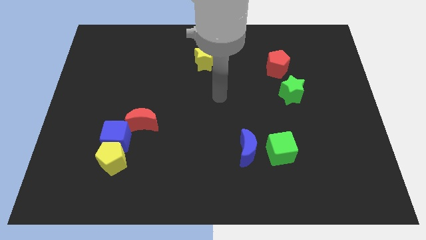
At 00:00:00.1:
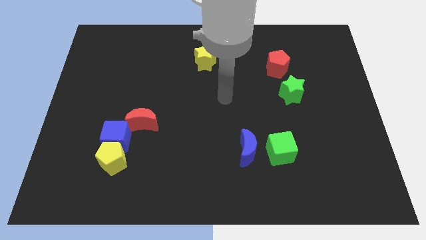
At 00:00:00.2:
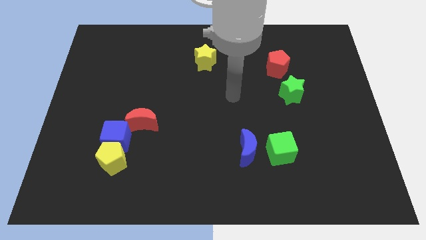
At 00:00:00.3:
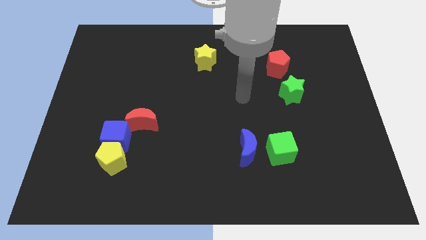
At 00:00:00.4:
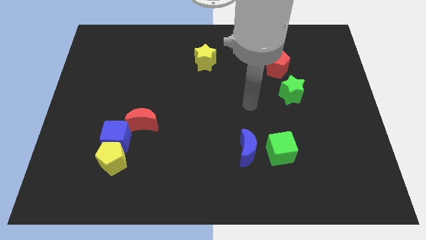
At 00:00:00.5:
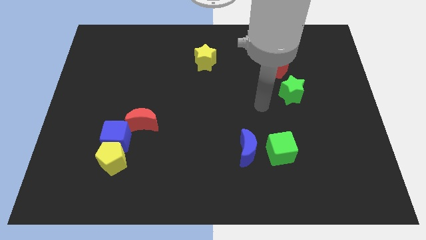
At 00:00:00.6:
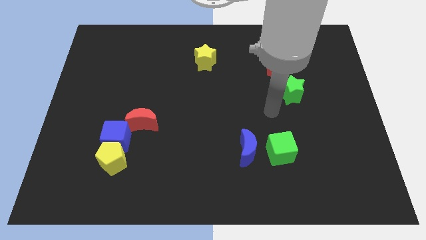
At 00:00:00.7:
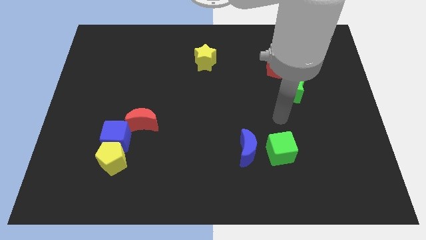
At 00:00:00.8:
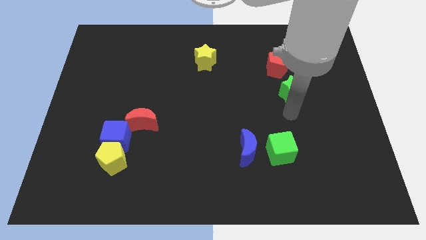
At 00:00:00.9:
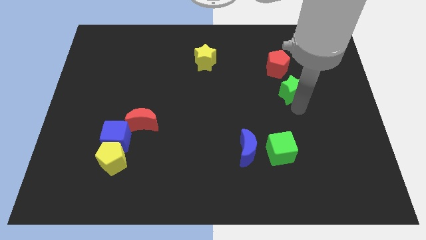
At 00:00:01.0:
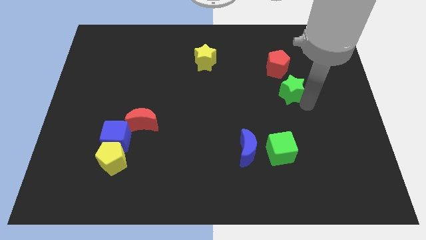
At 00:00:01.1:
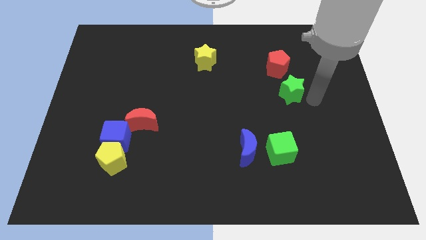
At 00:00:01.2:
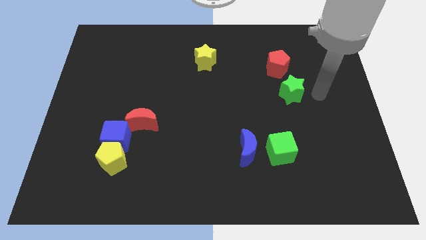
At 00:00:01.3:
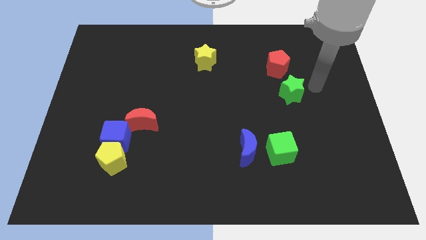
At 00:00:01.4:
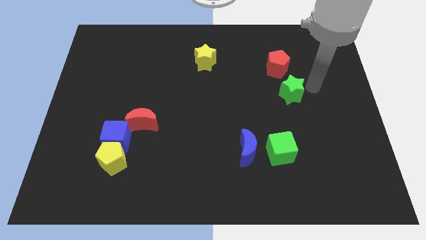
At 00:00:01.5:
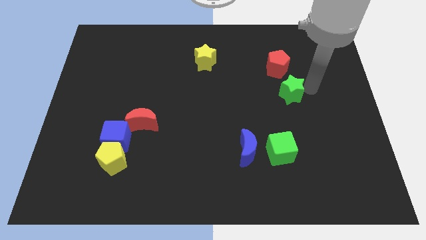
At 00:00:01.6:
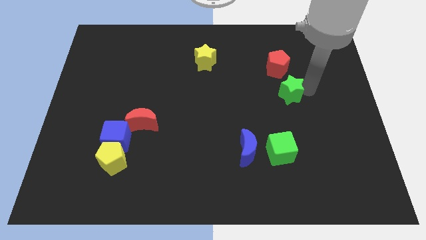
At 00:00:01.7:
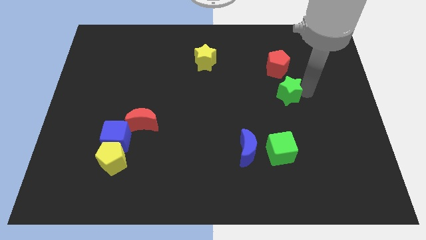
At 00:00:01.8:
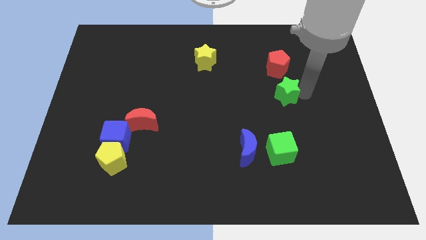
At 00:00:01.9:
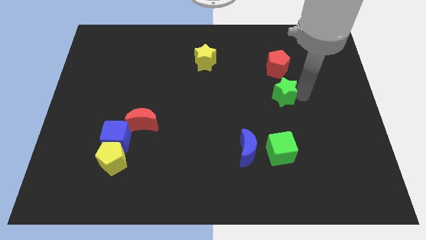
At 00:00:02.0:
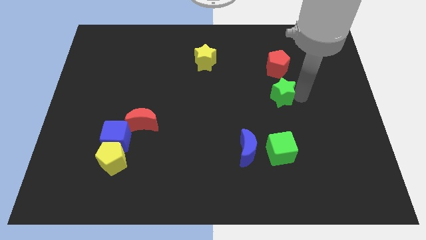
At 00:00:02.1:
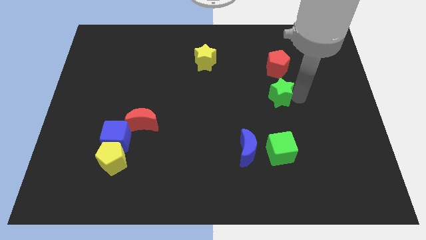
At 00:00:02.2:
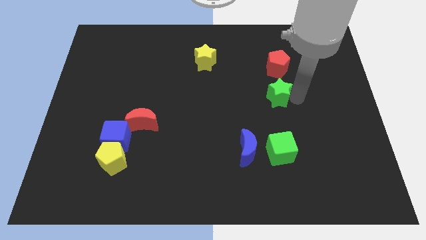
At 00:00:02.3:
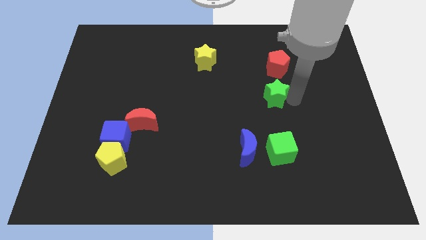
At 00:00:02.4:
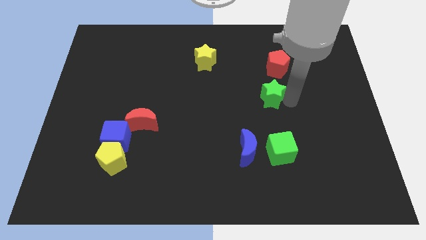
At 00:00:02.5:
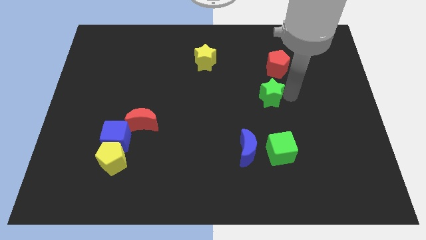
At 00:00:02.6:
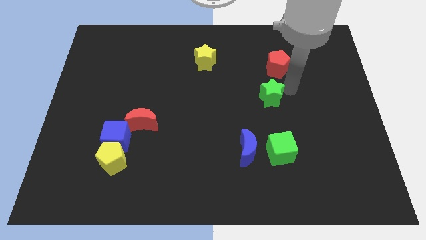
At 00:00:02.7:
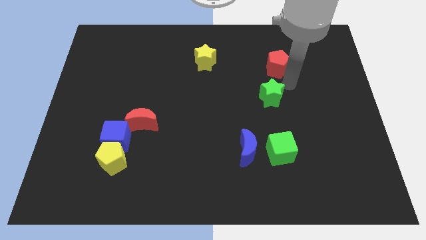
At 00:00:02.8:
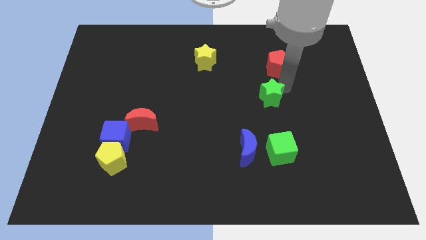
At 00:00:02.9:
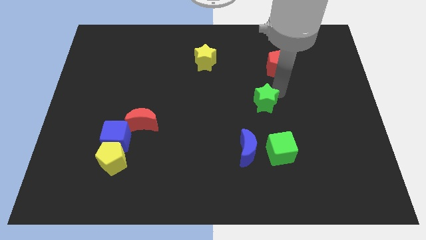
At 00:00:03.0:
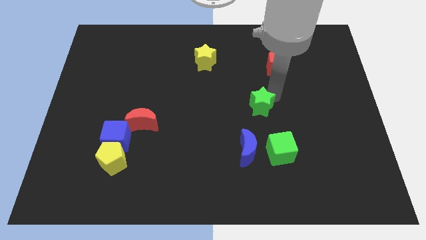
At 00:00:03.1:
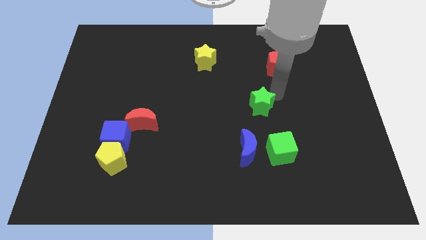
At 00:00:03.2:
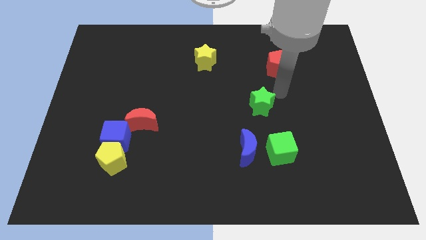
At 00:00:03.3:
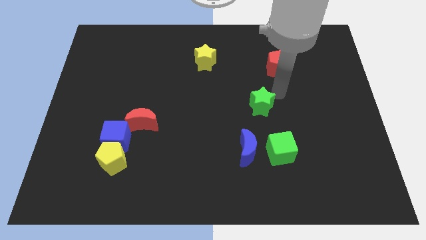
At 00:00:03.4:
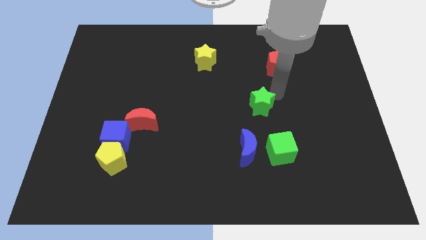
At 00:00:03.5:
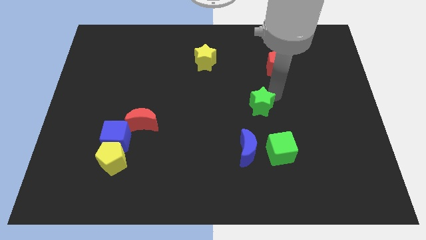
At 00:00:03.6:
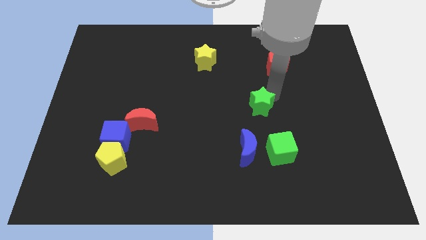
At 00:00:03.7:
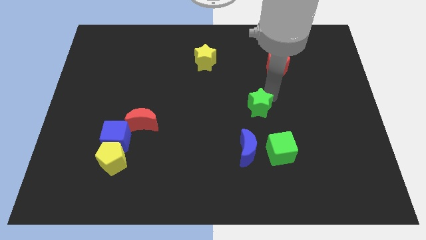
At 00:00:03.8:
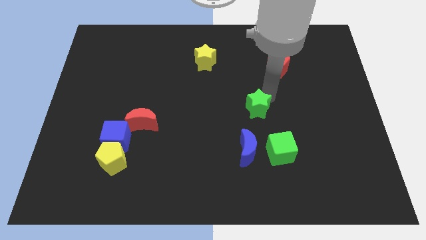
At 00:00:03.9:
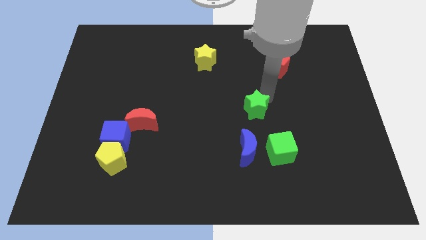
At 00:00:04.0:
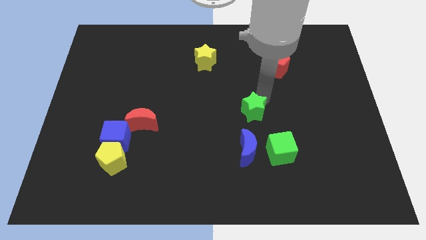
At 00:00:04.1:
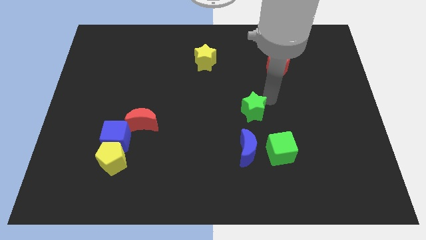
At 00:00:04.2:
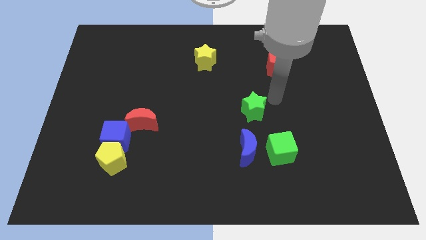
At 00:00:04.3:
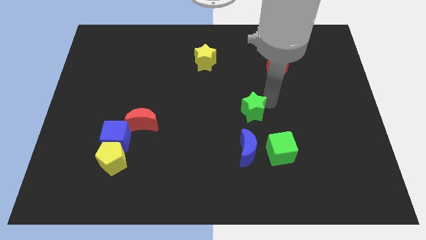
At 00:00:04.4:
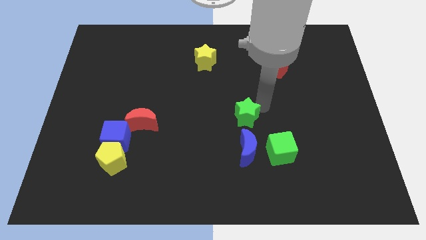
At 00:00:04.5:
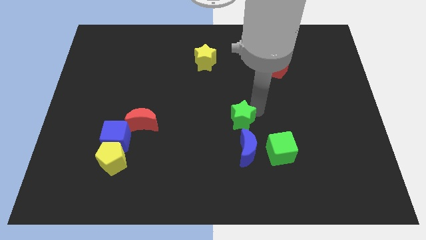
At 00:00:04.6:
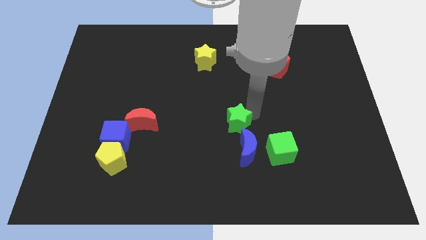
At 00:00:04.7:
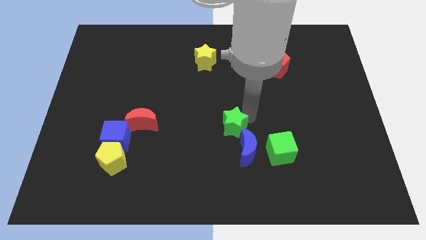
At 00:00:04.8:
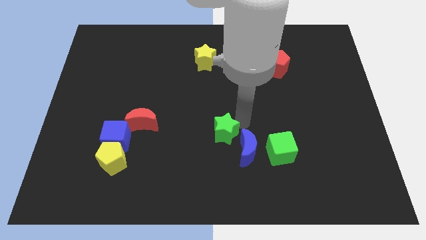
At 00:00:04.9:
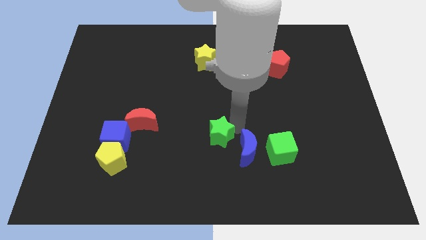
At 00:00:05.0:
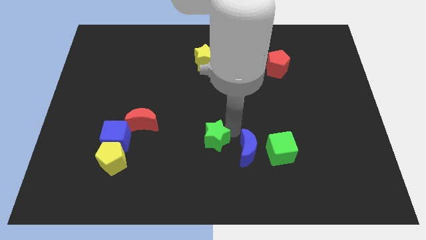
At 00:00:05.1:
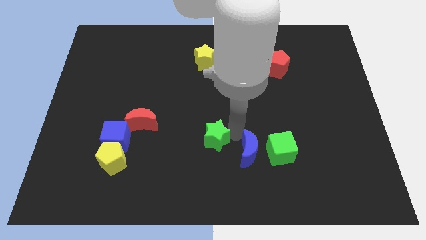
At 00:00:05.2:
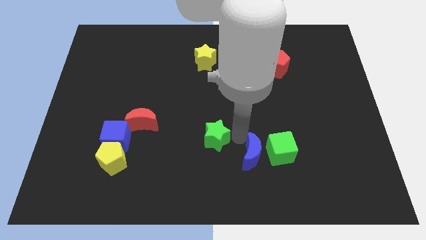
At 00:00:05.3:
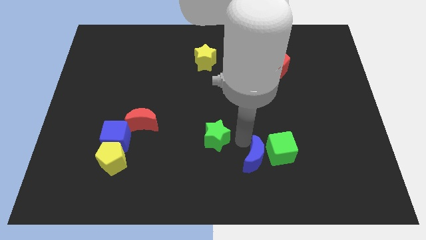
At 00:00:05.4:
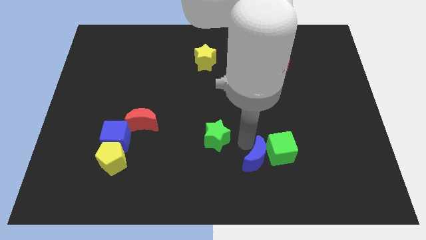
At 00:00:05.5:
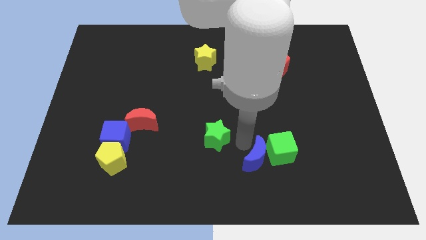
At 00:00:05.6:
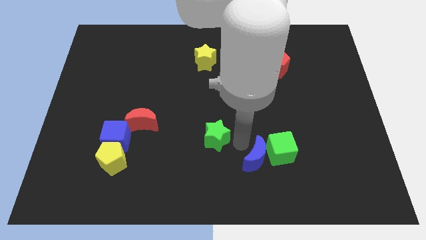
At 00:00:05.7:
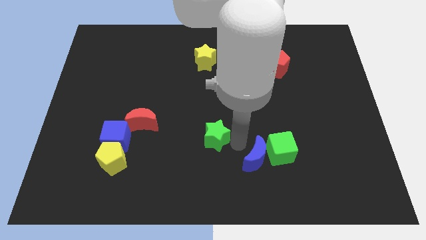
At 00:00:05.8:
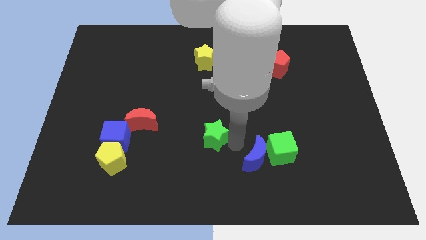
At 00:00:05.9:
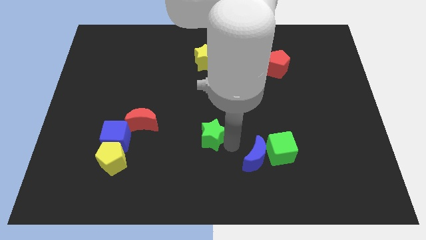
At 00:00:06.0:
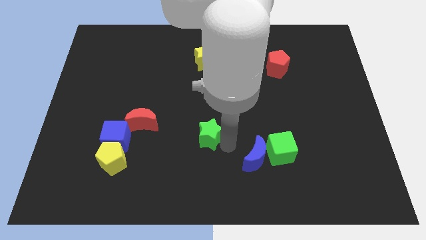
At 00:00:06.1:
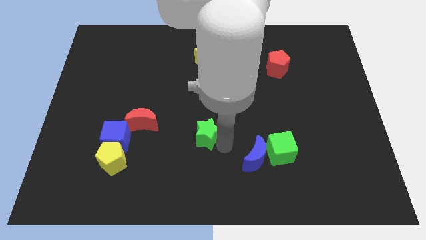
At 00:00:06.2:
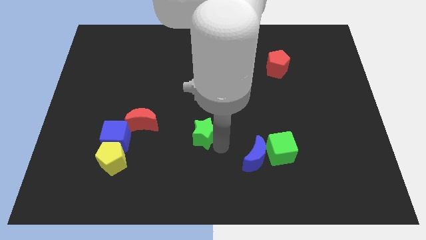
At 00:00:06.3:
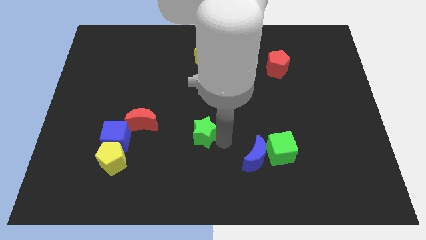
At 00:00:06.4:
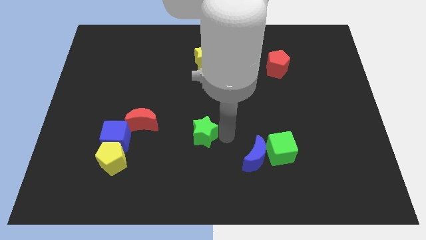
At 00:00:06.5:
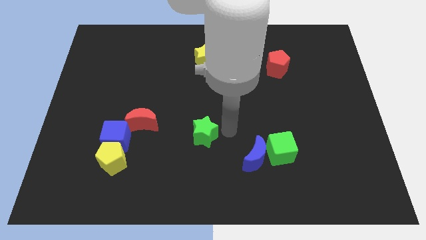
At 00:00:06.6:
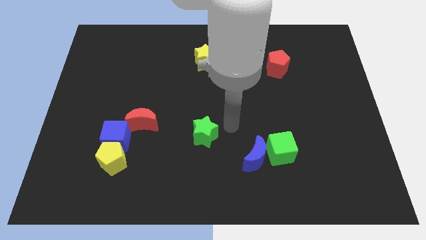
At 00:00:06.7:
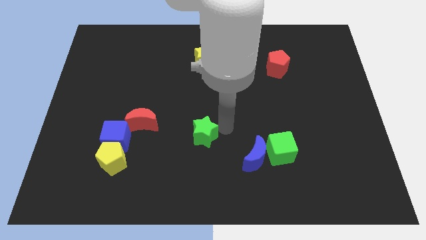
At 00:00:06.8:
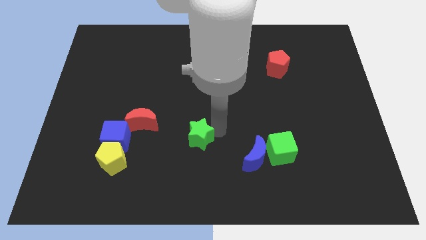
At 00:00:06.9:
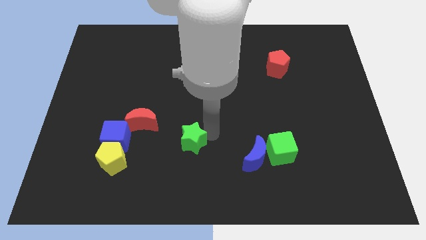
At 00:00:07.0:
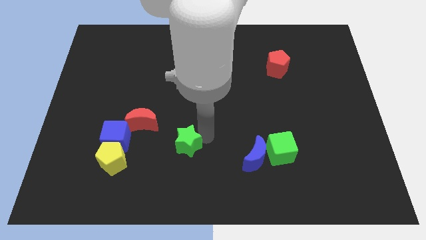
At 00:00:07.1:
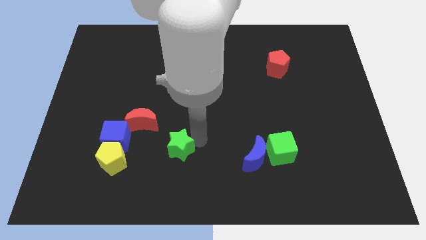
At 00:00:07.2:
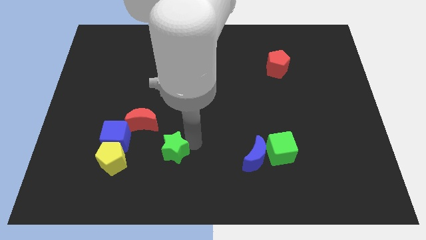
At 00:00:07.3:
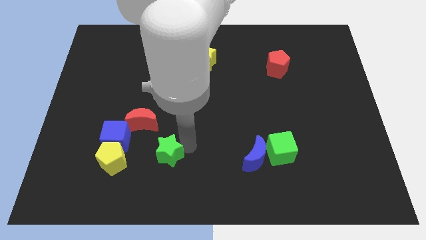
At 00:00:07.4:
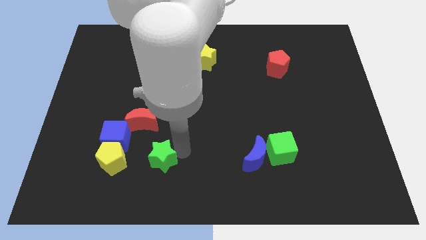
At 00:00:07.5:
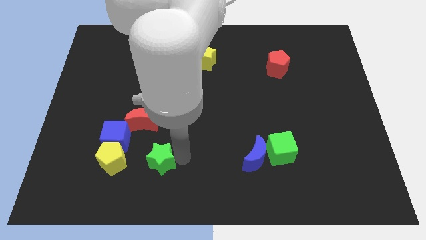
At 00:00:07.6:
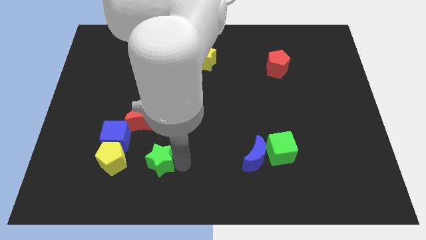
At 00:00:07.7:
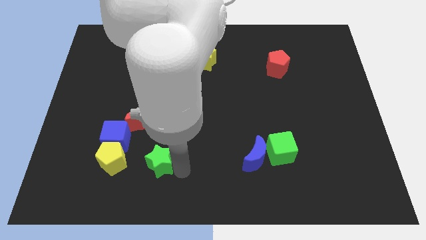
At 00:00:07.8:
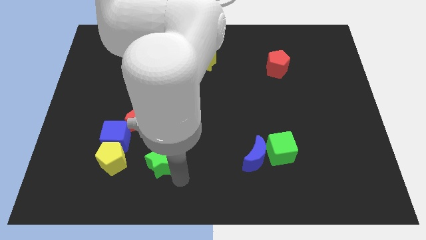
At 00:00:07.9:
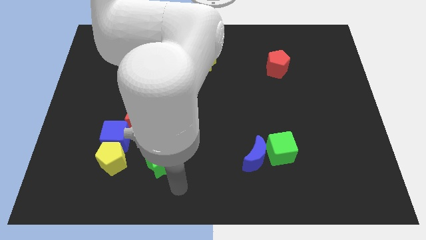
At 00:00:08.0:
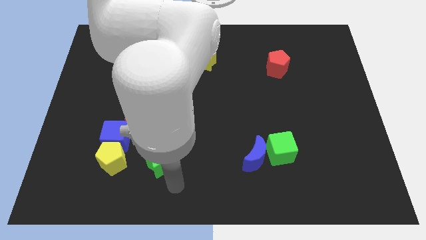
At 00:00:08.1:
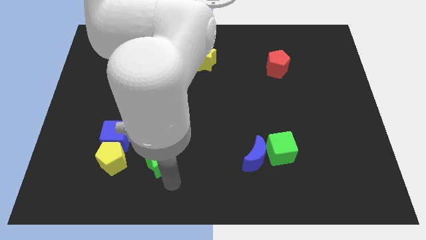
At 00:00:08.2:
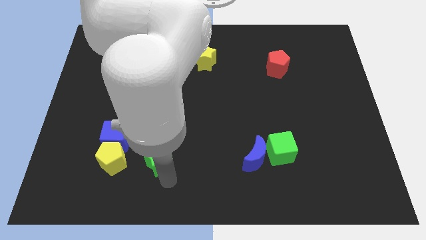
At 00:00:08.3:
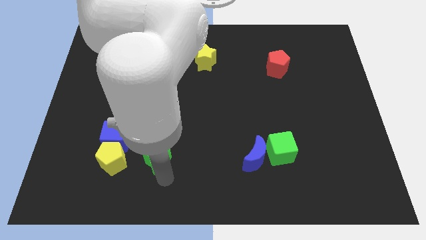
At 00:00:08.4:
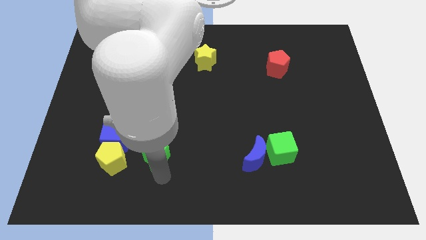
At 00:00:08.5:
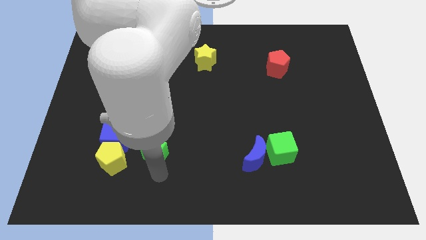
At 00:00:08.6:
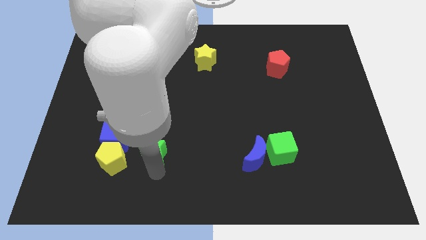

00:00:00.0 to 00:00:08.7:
move the green star to the top right of the yellow pentagon
